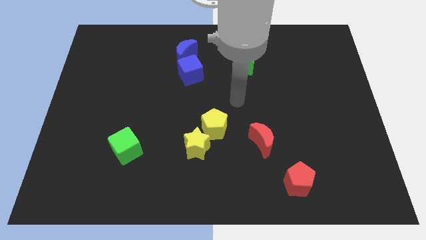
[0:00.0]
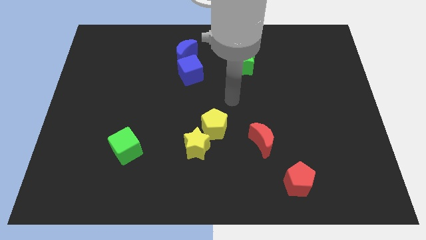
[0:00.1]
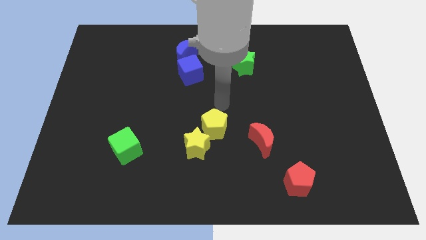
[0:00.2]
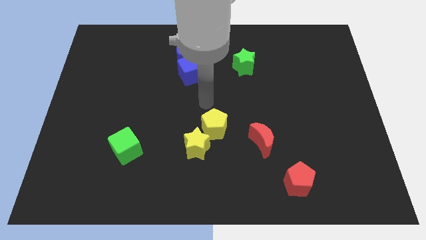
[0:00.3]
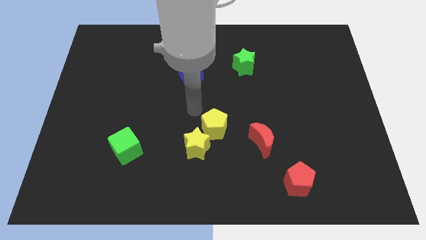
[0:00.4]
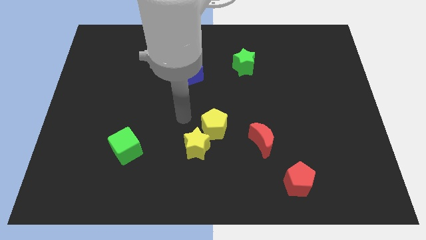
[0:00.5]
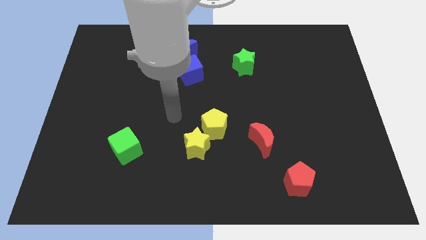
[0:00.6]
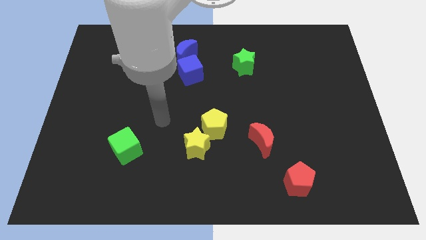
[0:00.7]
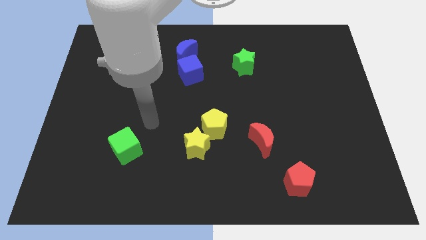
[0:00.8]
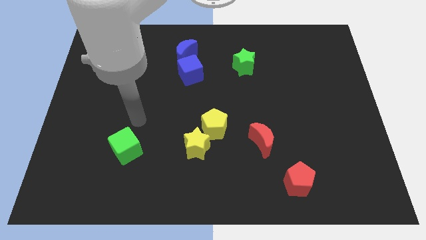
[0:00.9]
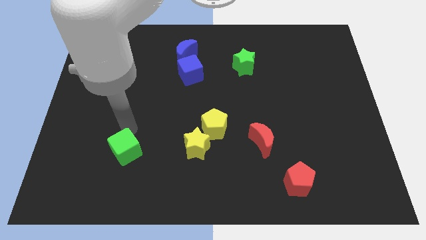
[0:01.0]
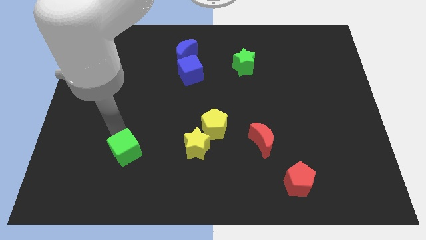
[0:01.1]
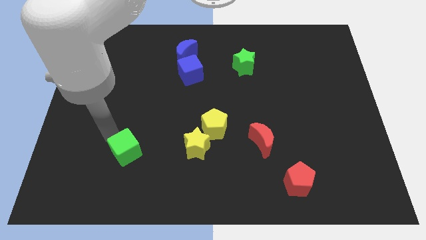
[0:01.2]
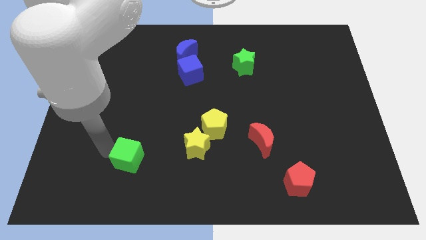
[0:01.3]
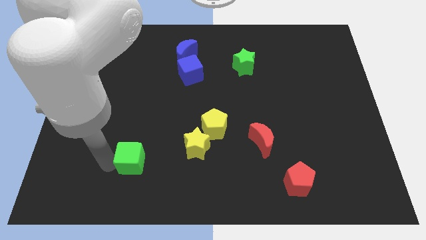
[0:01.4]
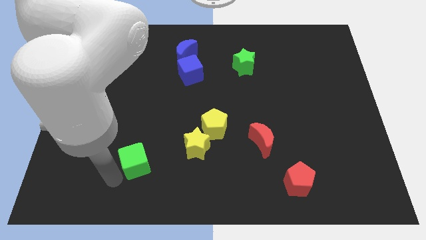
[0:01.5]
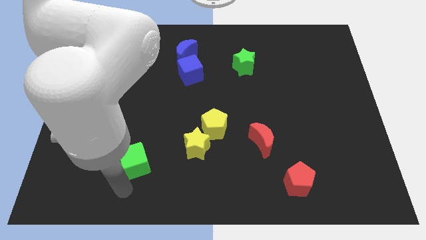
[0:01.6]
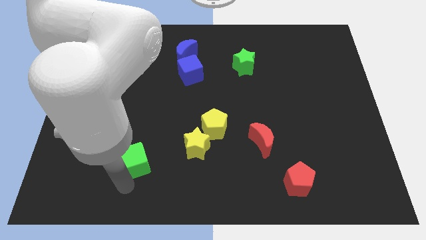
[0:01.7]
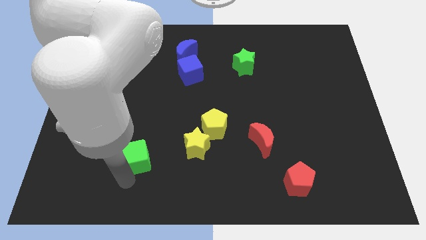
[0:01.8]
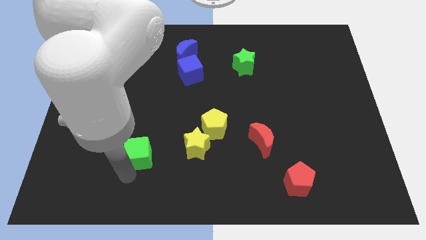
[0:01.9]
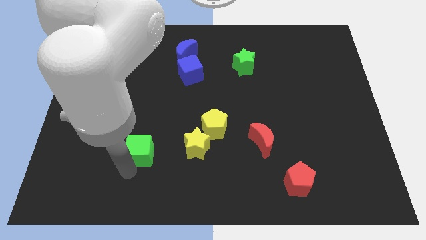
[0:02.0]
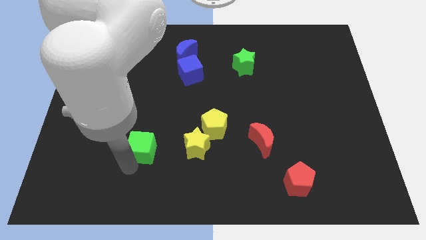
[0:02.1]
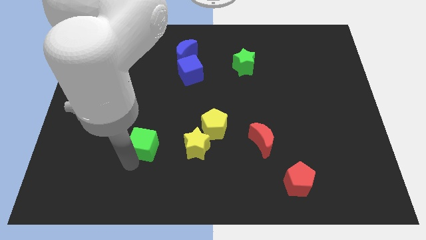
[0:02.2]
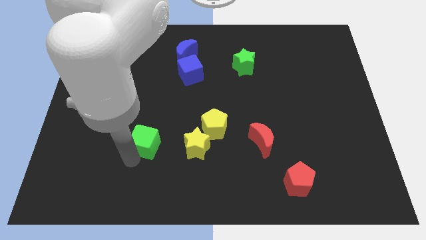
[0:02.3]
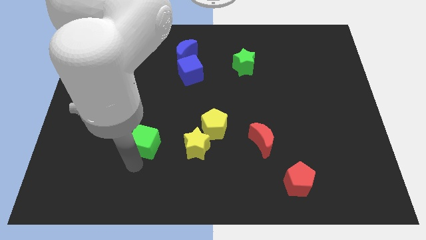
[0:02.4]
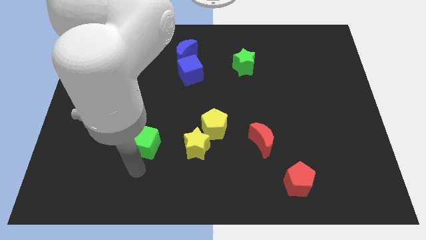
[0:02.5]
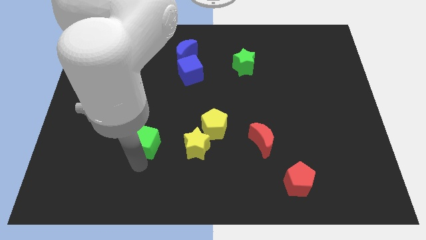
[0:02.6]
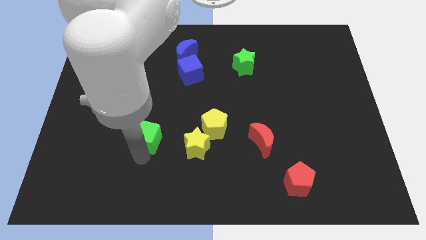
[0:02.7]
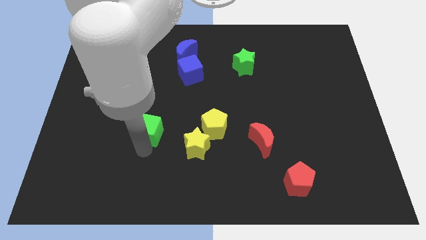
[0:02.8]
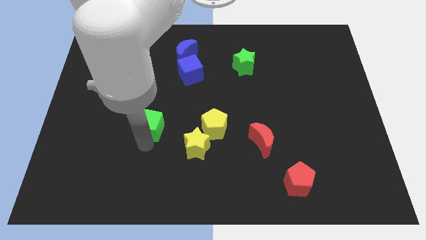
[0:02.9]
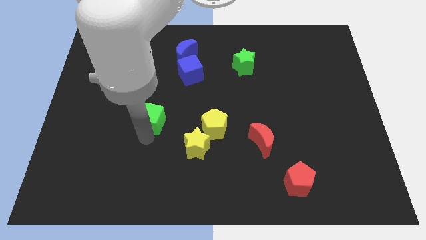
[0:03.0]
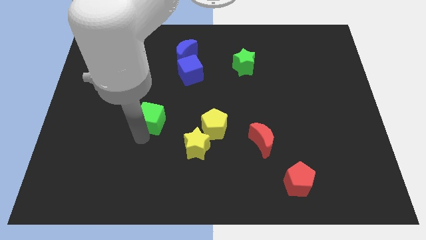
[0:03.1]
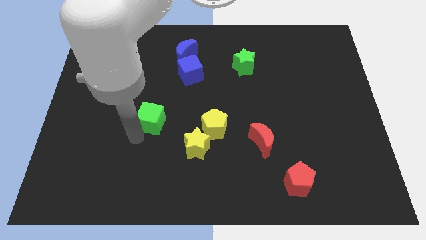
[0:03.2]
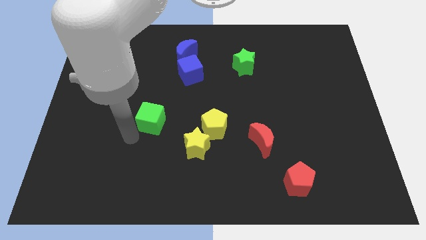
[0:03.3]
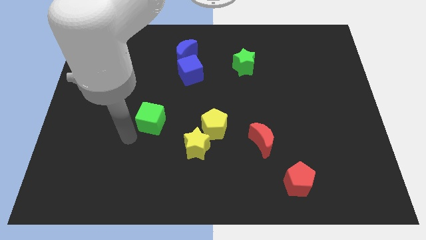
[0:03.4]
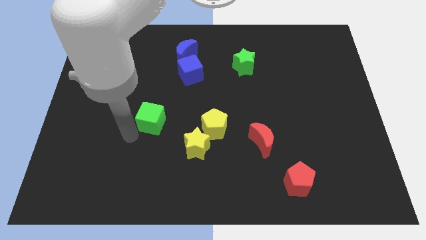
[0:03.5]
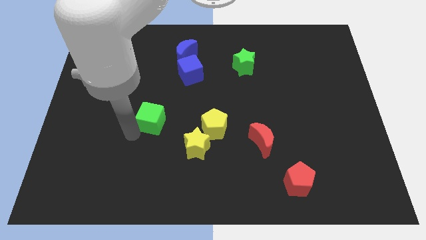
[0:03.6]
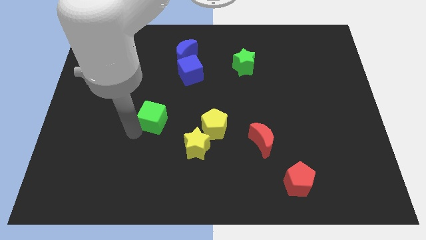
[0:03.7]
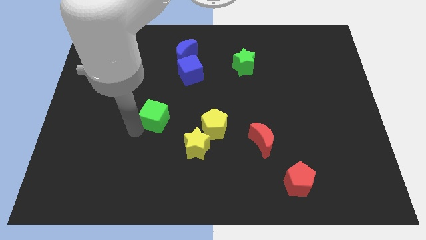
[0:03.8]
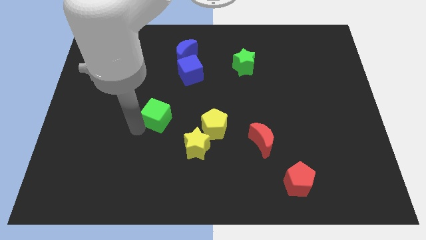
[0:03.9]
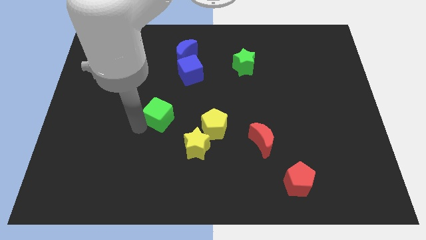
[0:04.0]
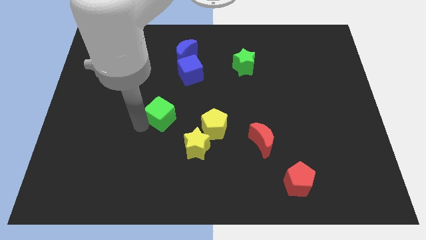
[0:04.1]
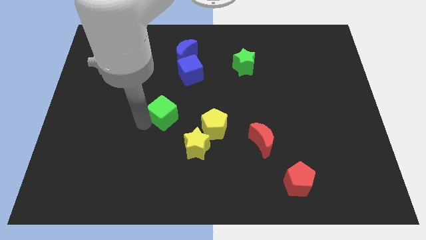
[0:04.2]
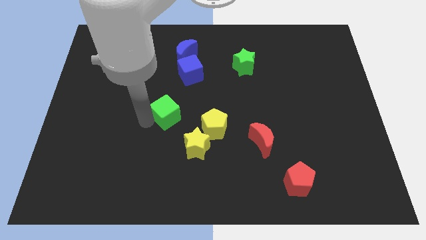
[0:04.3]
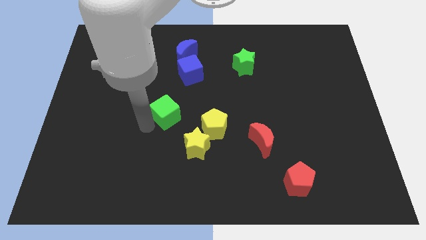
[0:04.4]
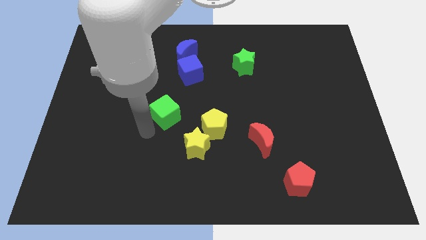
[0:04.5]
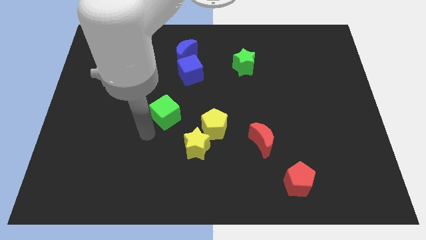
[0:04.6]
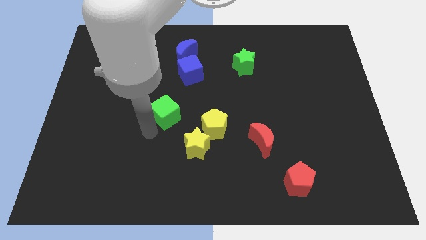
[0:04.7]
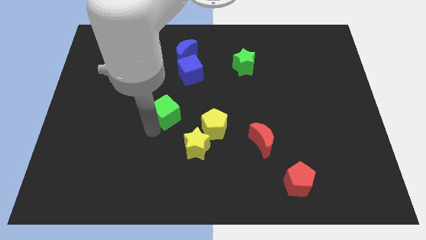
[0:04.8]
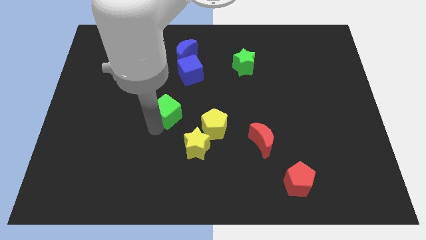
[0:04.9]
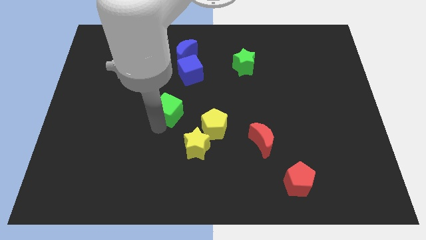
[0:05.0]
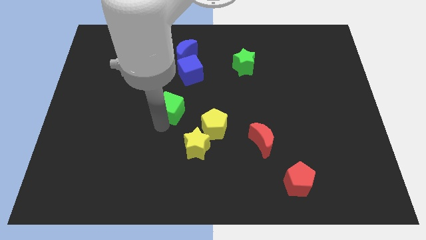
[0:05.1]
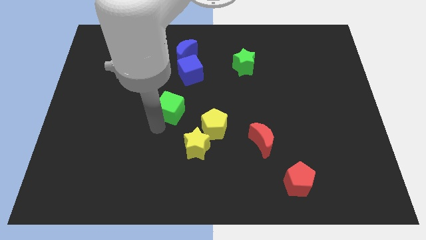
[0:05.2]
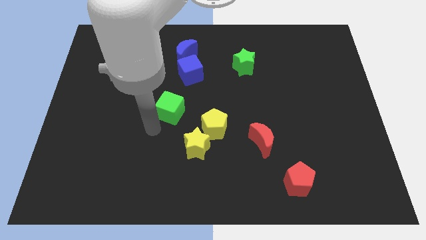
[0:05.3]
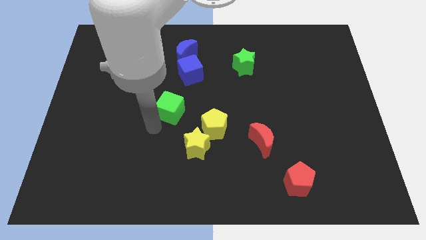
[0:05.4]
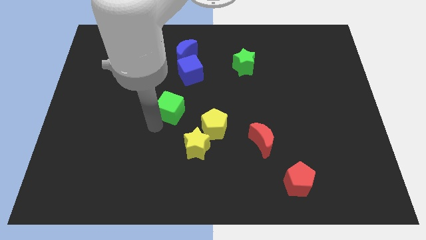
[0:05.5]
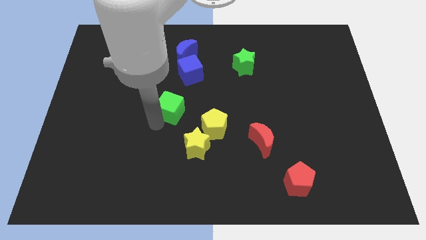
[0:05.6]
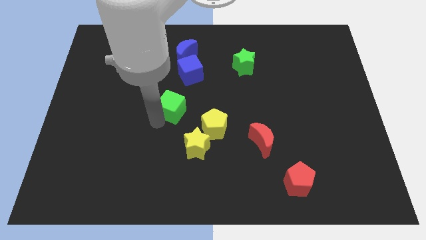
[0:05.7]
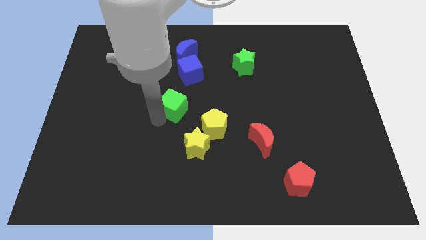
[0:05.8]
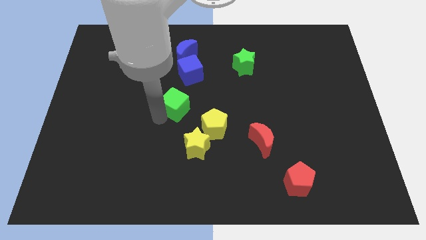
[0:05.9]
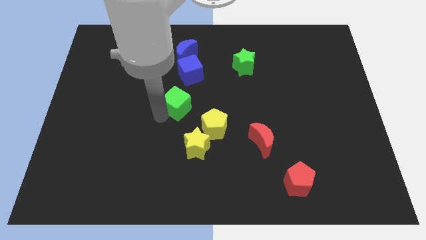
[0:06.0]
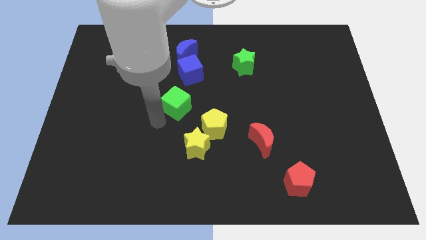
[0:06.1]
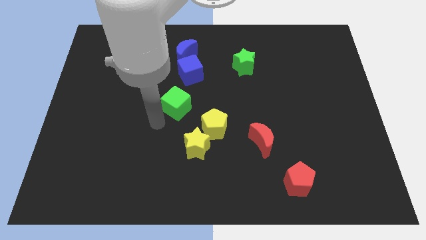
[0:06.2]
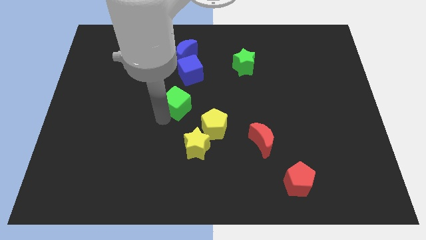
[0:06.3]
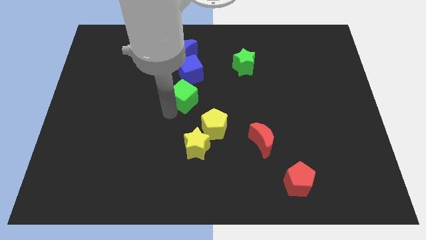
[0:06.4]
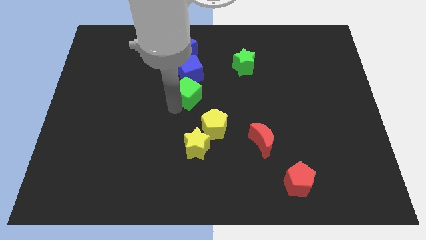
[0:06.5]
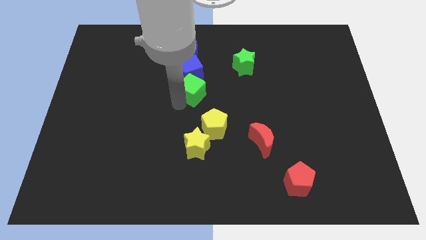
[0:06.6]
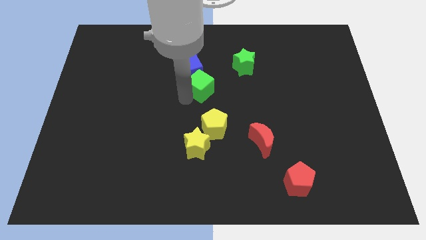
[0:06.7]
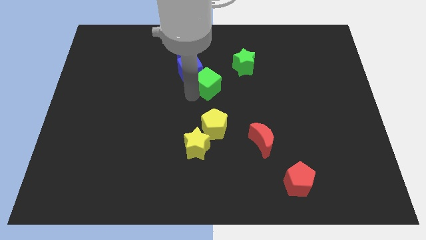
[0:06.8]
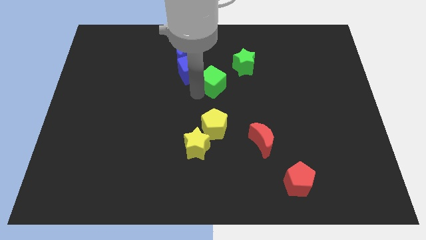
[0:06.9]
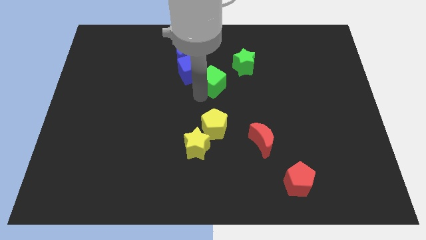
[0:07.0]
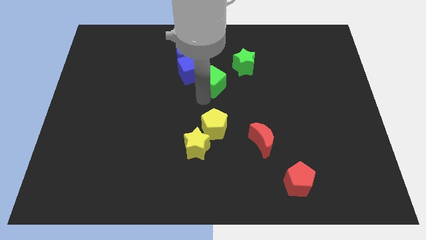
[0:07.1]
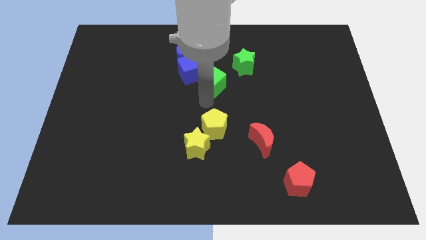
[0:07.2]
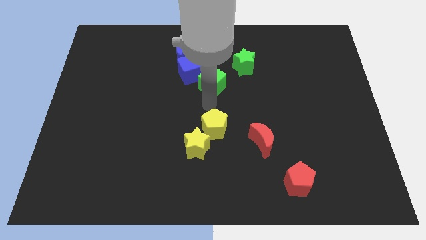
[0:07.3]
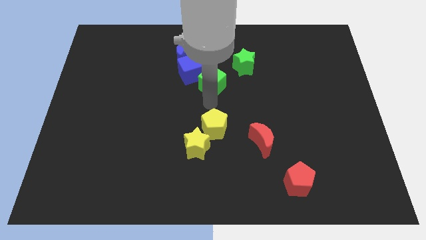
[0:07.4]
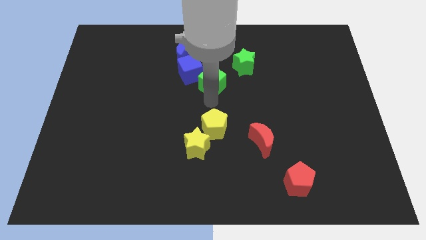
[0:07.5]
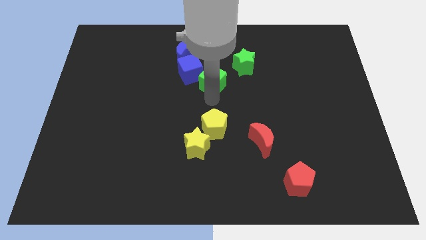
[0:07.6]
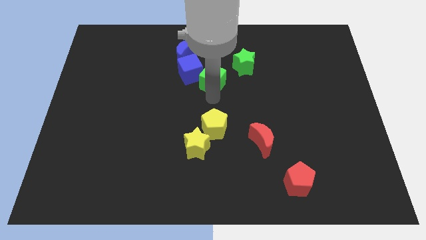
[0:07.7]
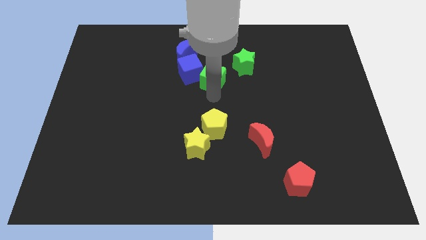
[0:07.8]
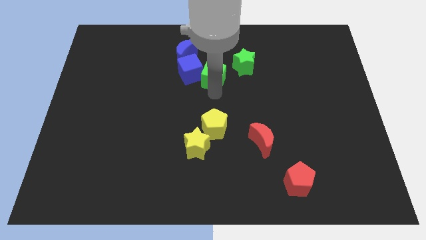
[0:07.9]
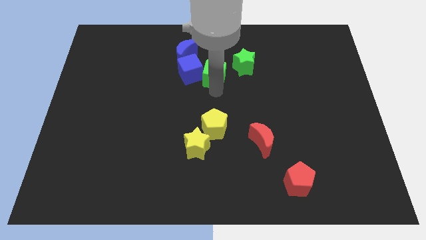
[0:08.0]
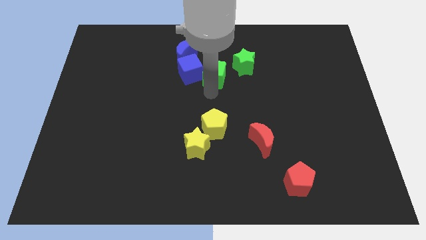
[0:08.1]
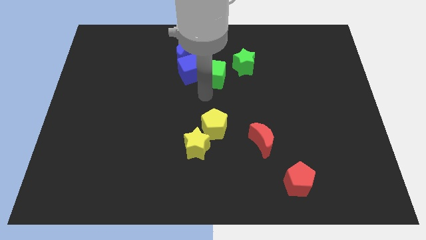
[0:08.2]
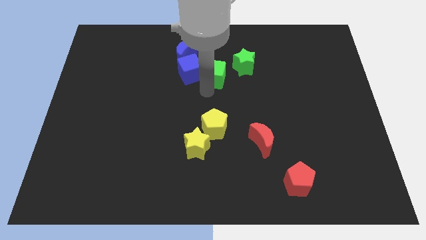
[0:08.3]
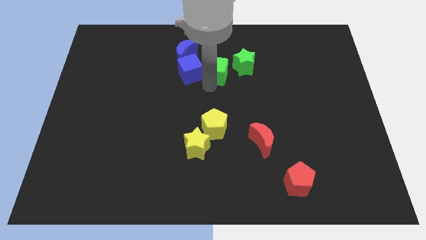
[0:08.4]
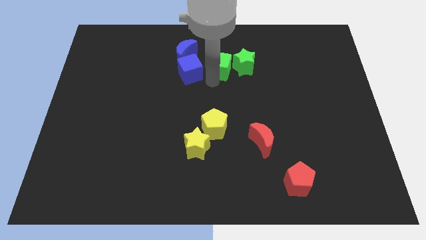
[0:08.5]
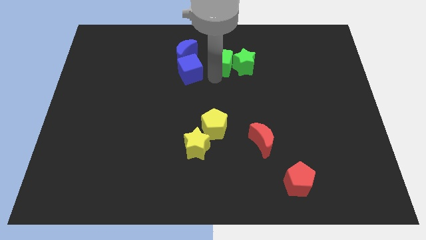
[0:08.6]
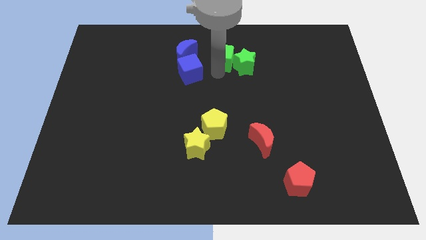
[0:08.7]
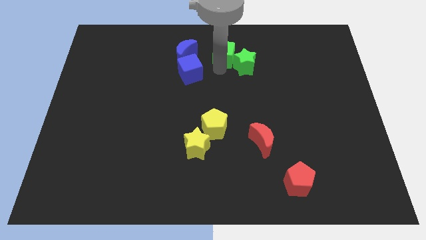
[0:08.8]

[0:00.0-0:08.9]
move the green cube to the top
